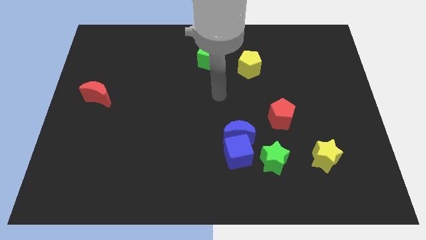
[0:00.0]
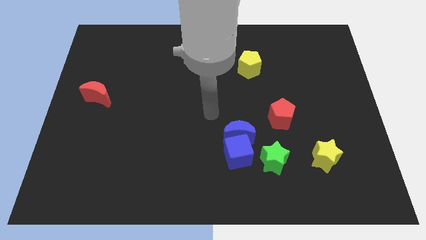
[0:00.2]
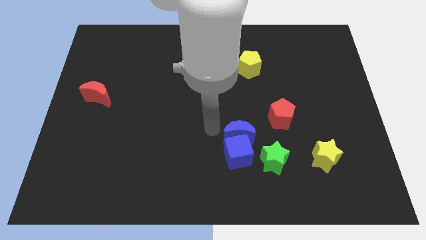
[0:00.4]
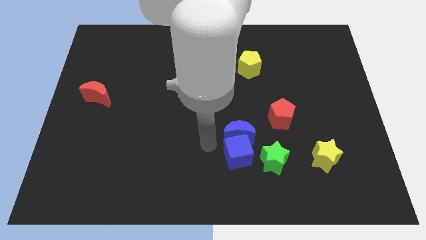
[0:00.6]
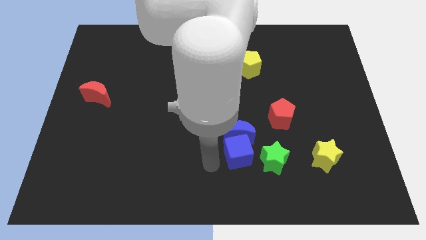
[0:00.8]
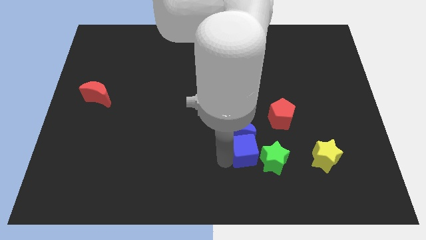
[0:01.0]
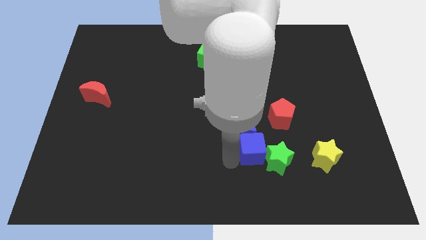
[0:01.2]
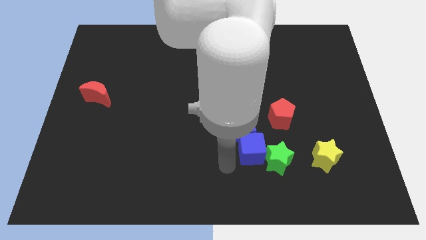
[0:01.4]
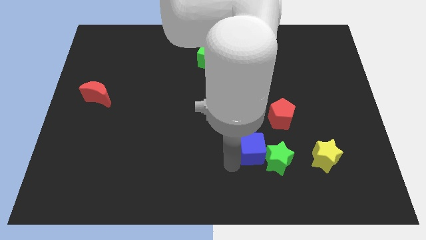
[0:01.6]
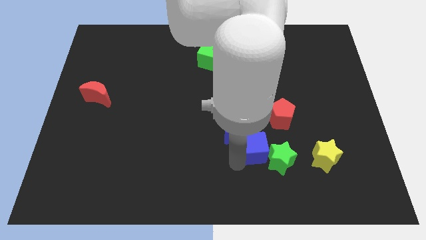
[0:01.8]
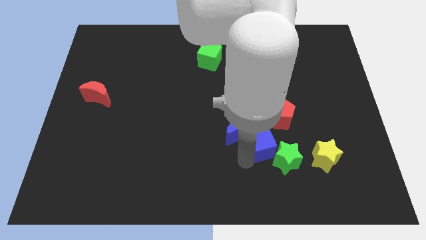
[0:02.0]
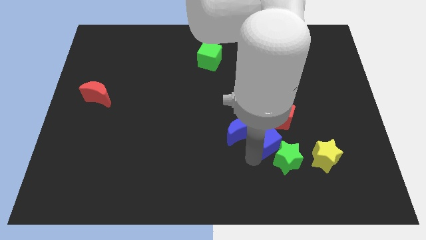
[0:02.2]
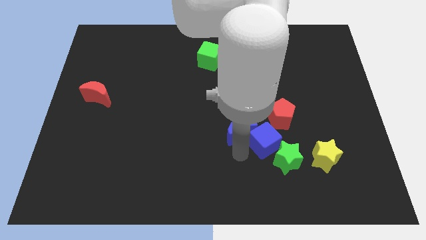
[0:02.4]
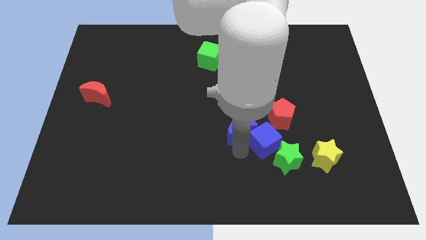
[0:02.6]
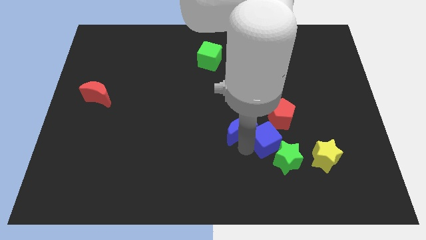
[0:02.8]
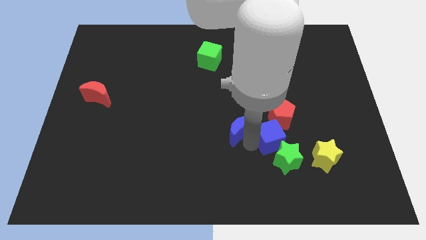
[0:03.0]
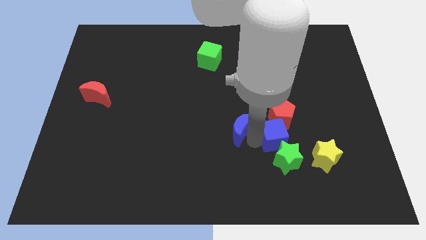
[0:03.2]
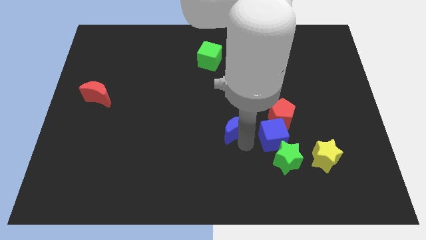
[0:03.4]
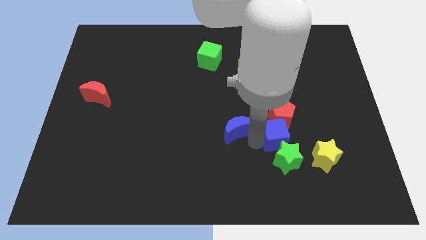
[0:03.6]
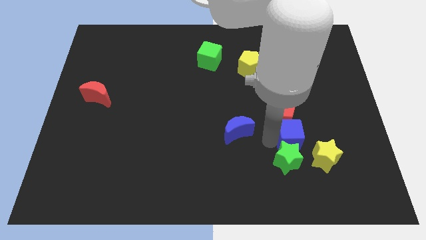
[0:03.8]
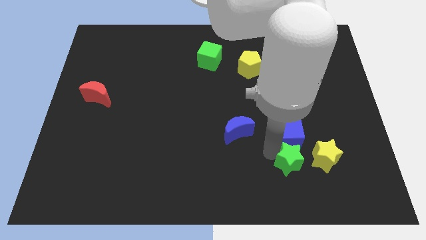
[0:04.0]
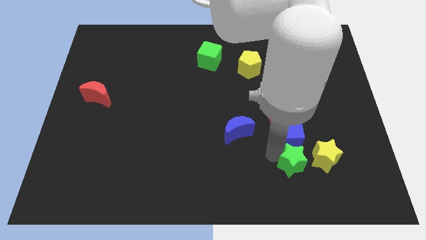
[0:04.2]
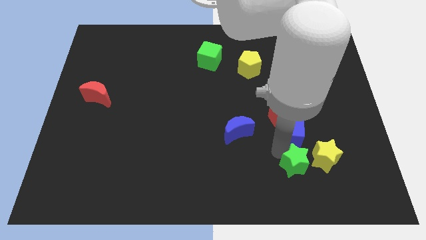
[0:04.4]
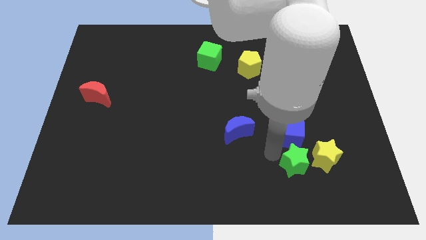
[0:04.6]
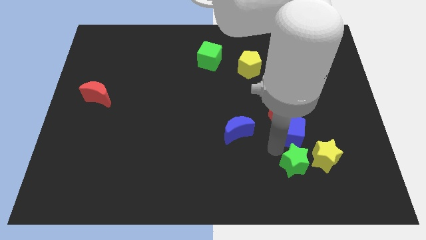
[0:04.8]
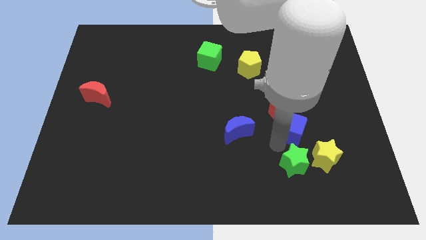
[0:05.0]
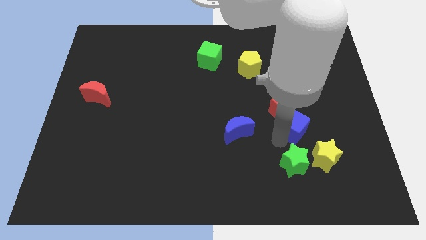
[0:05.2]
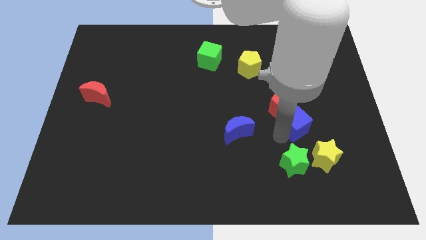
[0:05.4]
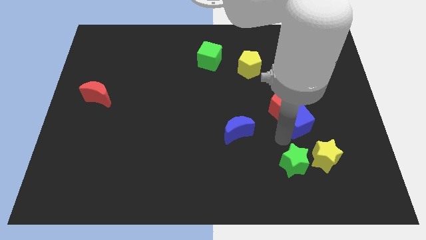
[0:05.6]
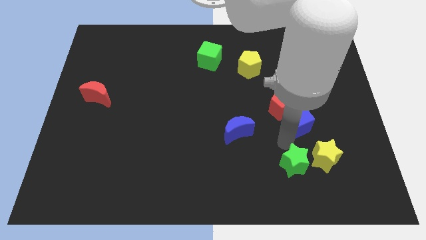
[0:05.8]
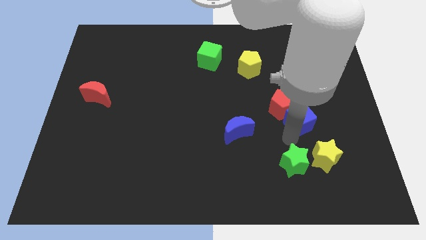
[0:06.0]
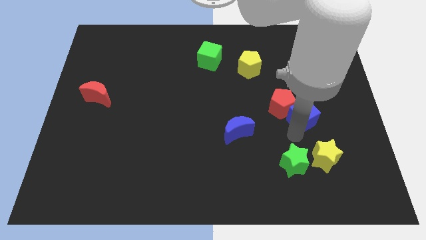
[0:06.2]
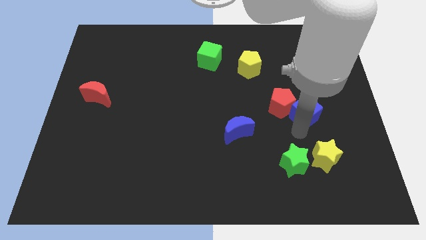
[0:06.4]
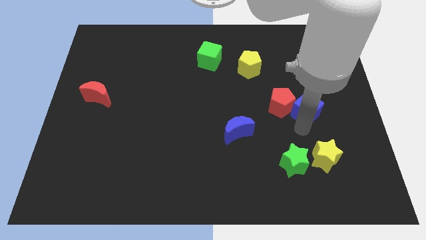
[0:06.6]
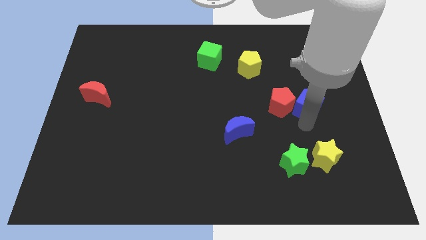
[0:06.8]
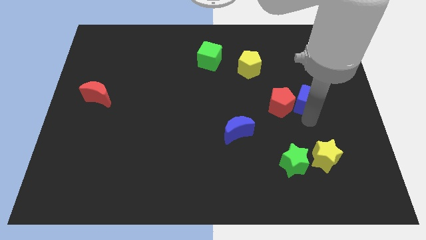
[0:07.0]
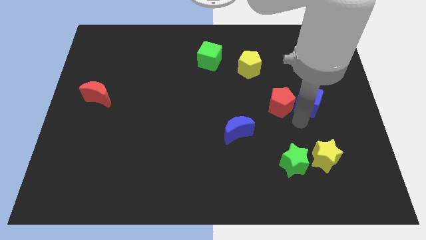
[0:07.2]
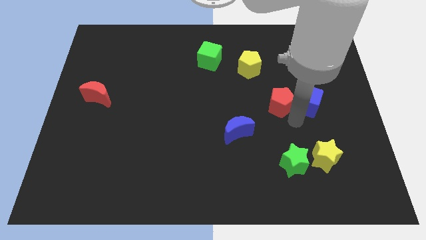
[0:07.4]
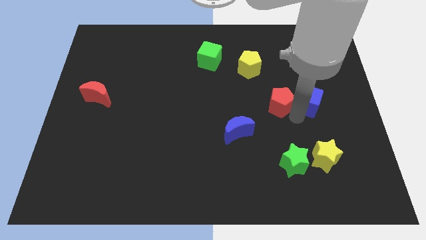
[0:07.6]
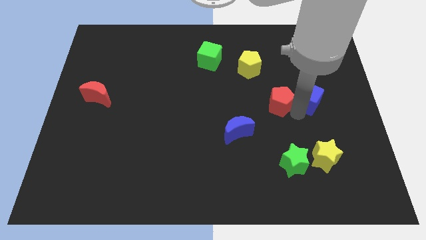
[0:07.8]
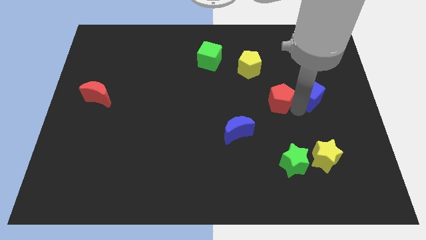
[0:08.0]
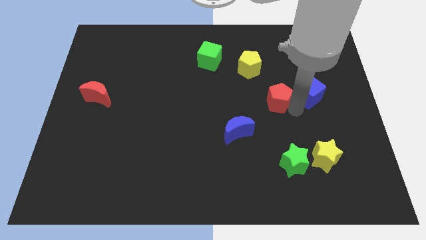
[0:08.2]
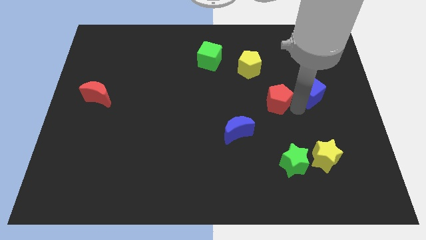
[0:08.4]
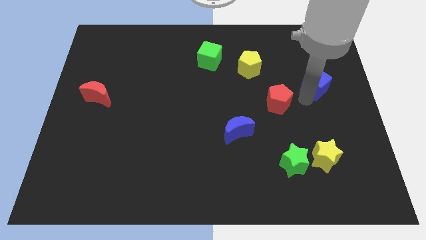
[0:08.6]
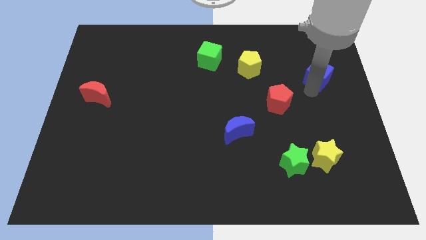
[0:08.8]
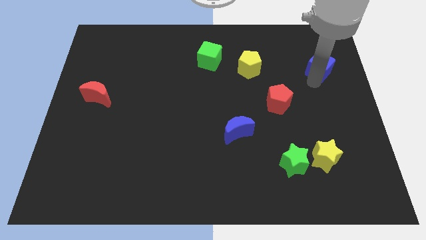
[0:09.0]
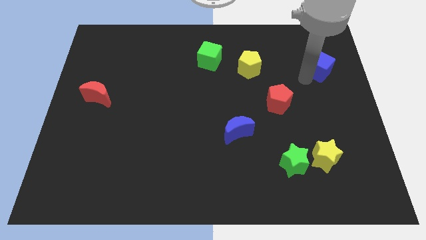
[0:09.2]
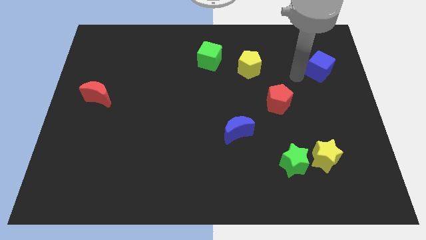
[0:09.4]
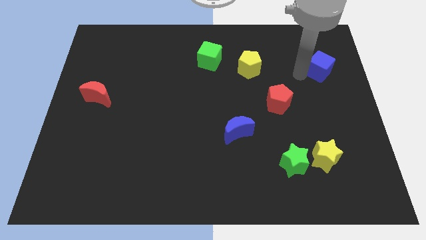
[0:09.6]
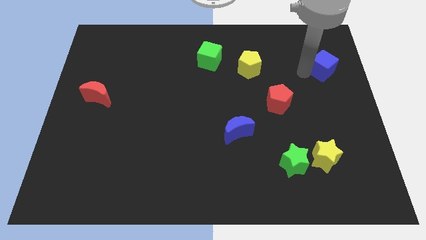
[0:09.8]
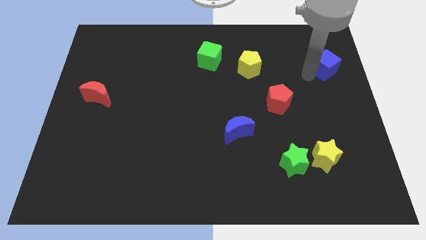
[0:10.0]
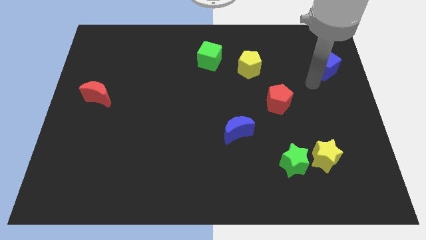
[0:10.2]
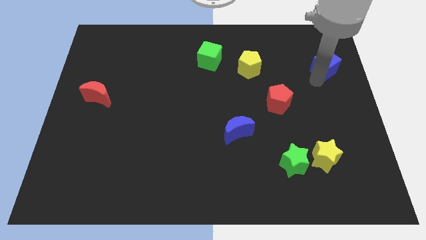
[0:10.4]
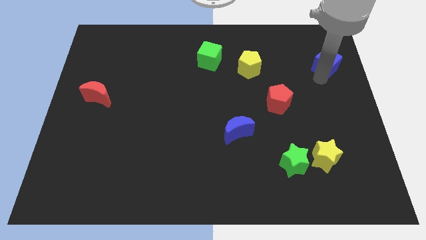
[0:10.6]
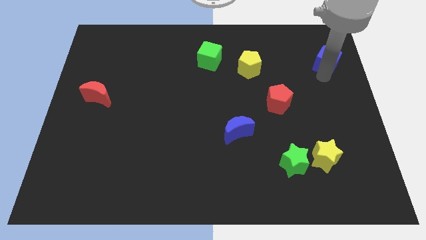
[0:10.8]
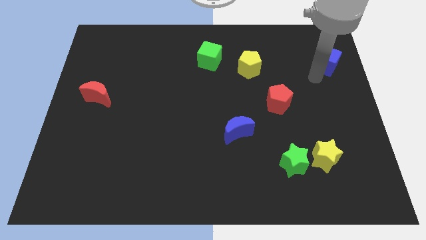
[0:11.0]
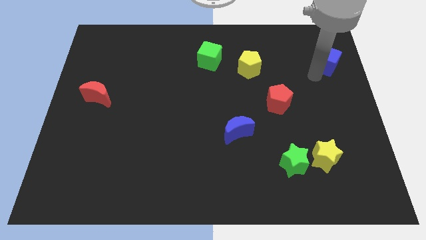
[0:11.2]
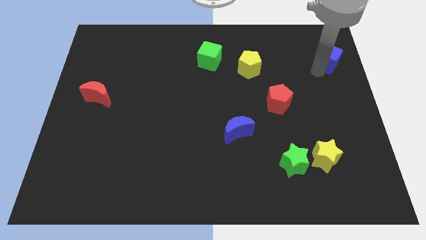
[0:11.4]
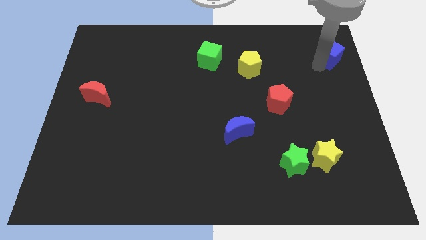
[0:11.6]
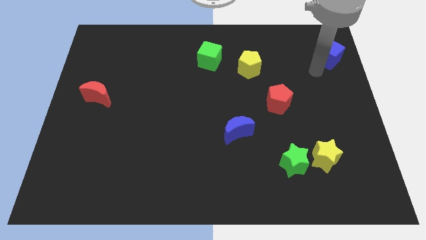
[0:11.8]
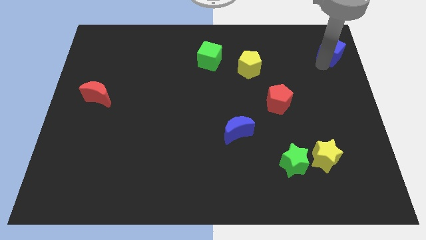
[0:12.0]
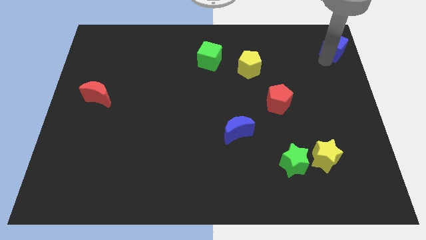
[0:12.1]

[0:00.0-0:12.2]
slide the blue cube to the top right corner

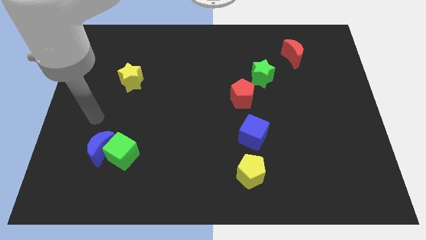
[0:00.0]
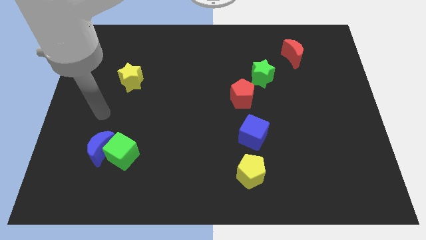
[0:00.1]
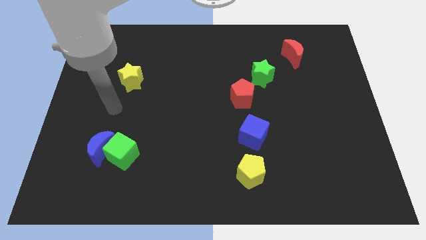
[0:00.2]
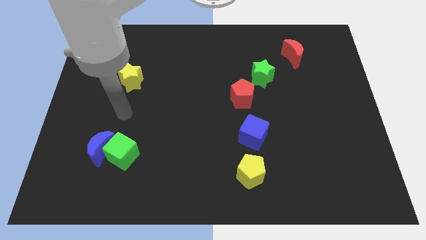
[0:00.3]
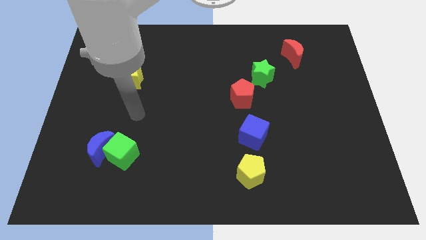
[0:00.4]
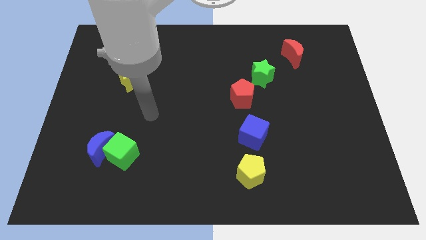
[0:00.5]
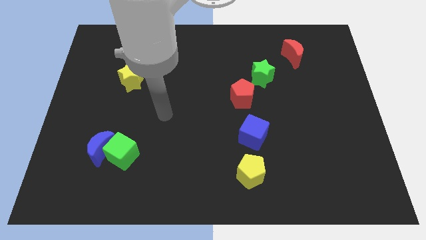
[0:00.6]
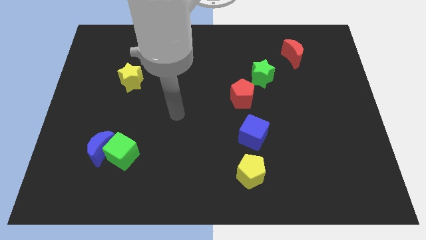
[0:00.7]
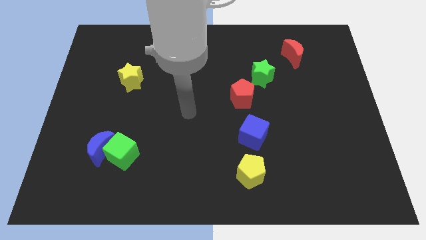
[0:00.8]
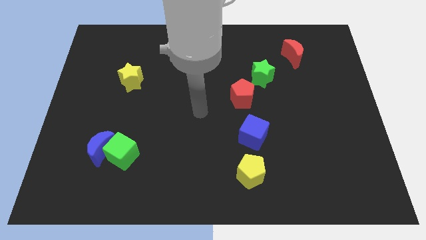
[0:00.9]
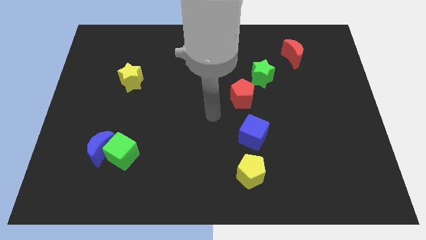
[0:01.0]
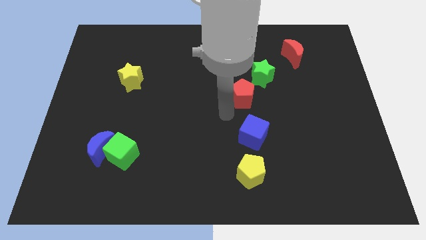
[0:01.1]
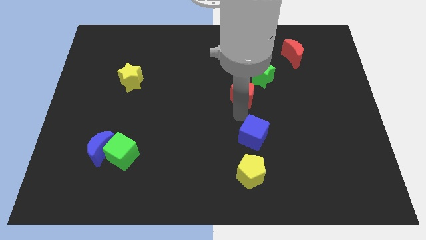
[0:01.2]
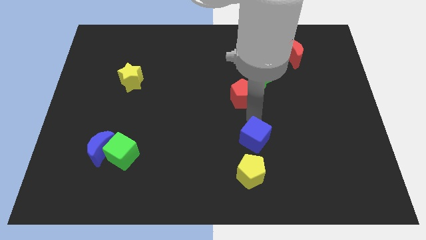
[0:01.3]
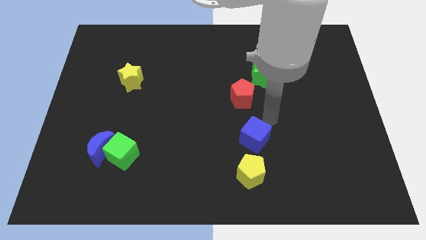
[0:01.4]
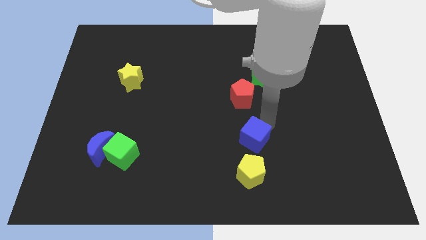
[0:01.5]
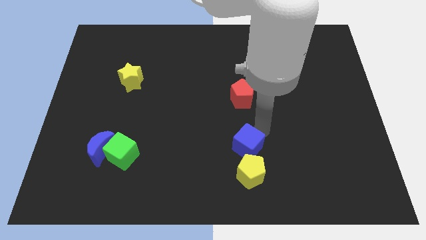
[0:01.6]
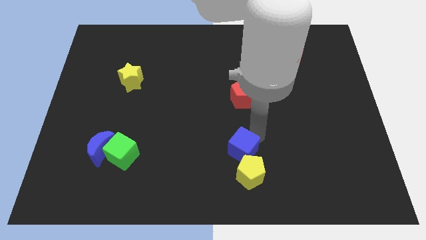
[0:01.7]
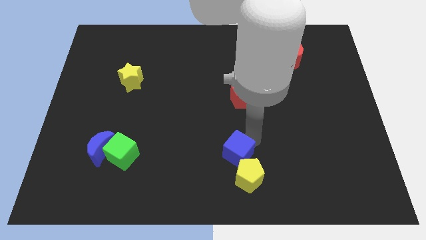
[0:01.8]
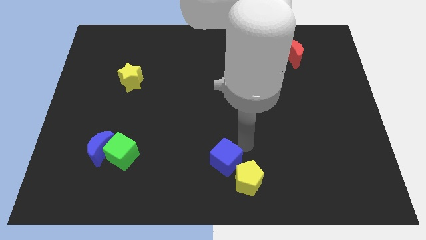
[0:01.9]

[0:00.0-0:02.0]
slide the blue cube to the bottom
